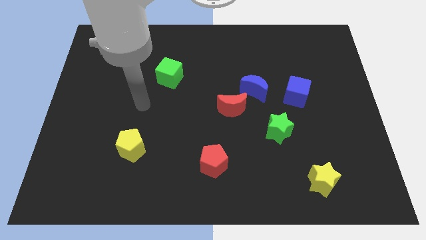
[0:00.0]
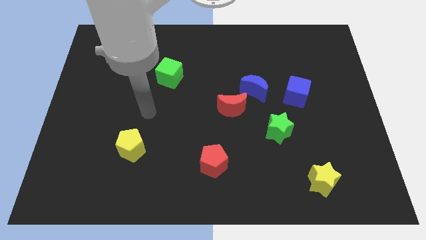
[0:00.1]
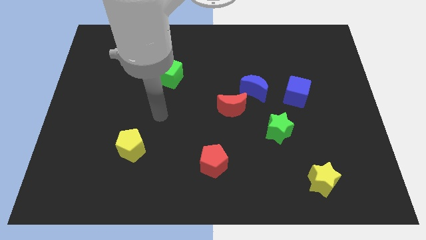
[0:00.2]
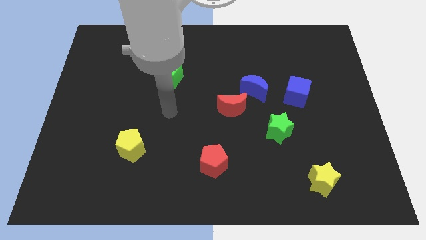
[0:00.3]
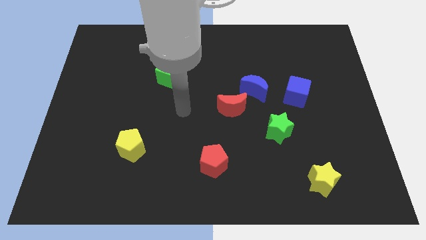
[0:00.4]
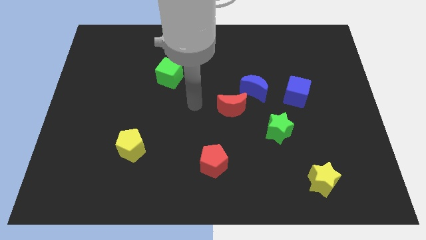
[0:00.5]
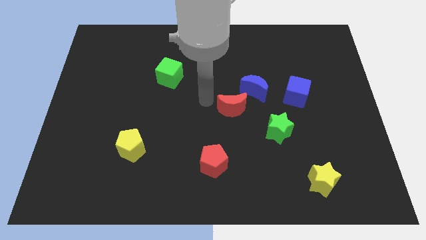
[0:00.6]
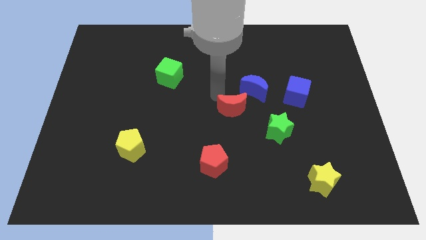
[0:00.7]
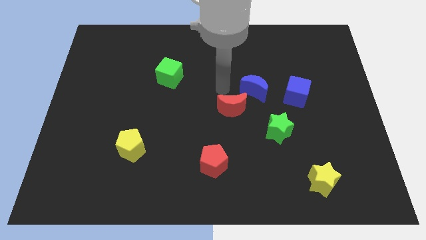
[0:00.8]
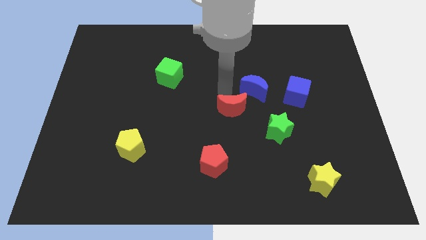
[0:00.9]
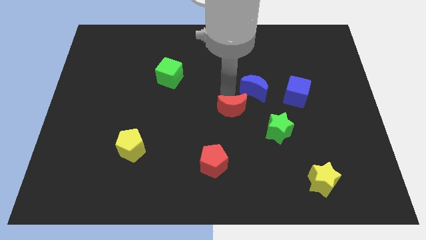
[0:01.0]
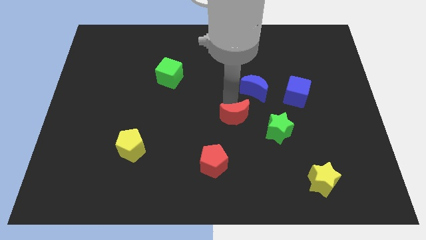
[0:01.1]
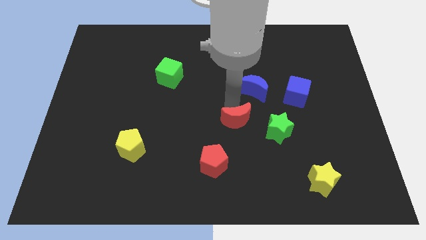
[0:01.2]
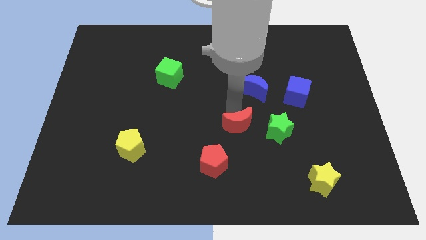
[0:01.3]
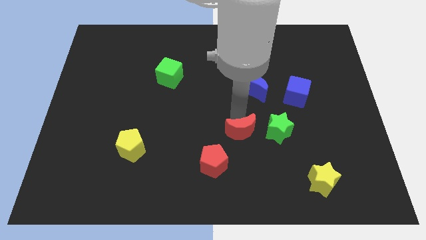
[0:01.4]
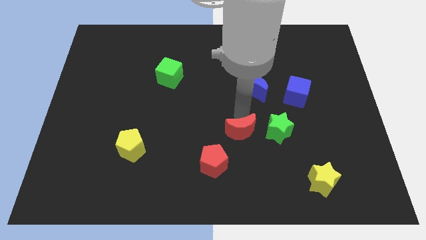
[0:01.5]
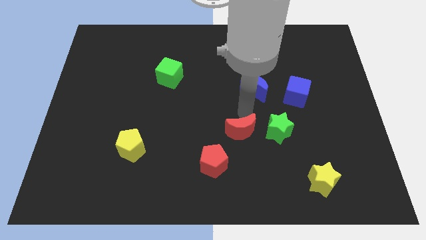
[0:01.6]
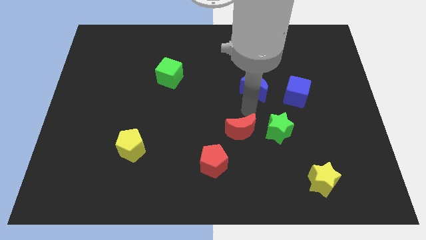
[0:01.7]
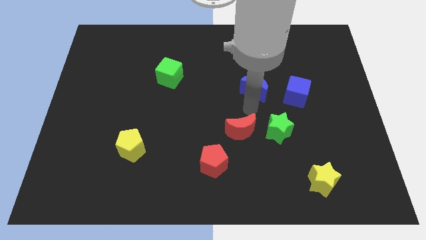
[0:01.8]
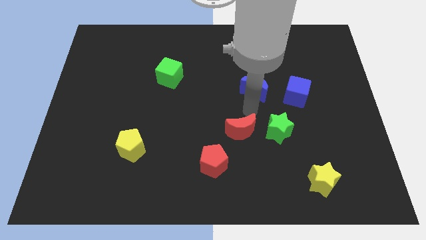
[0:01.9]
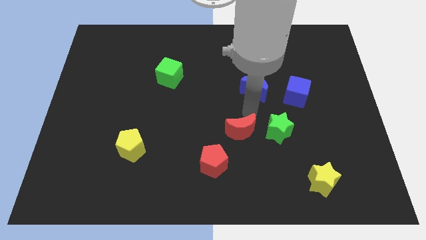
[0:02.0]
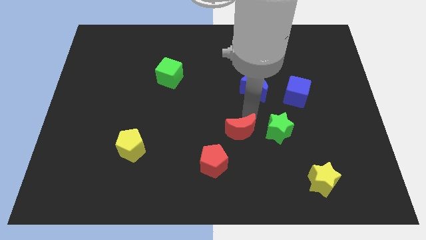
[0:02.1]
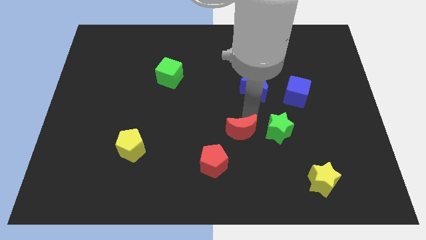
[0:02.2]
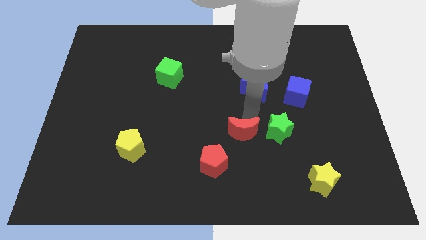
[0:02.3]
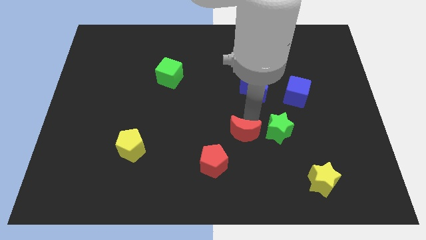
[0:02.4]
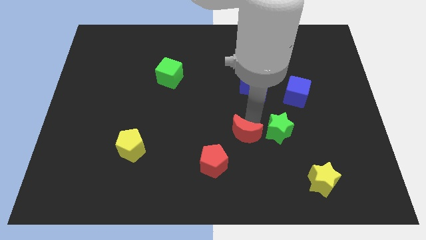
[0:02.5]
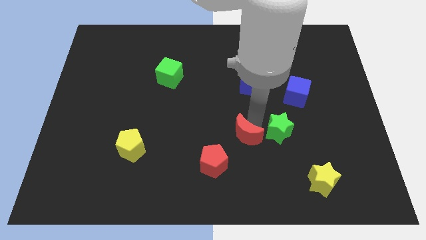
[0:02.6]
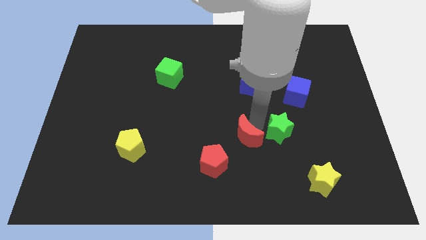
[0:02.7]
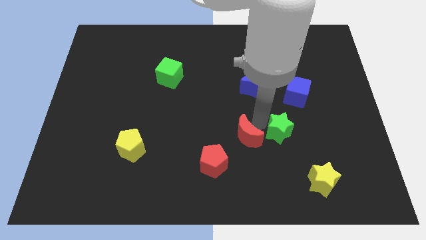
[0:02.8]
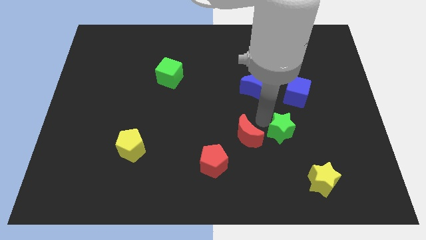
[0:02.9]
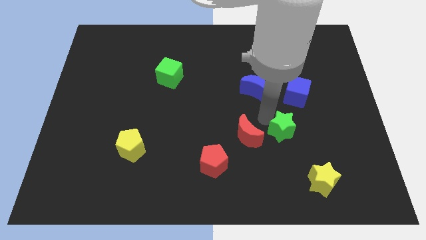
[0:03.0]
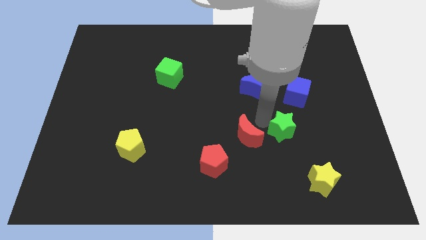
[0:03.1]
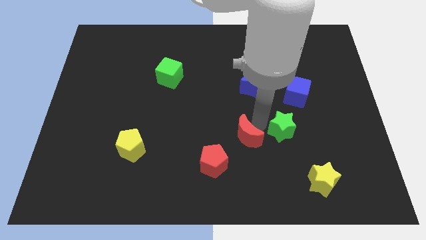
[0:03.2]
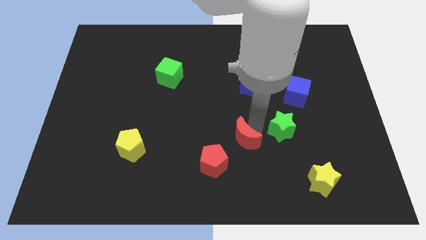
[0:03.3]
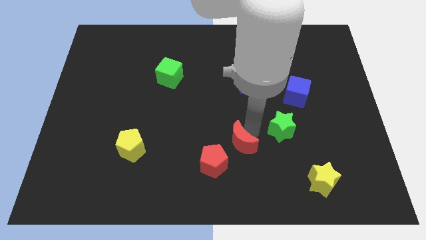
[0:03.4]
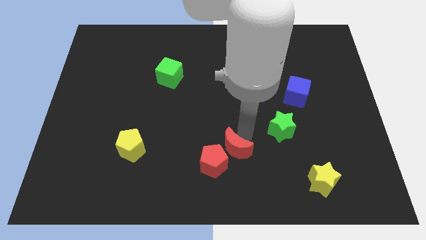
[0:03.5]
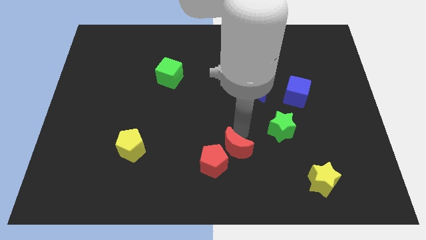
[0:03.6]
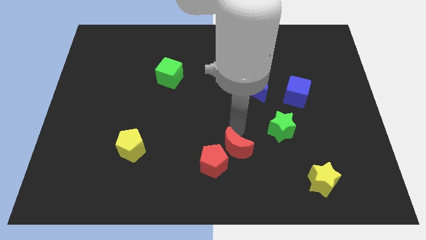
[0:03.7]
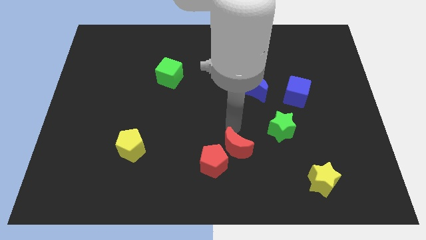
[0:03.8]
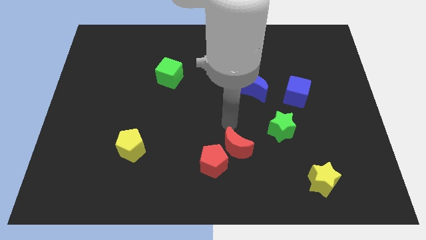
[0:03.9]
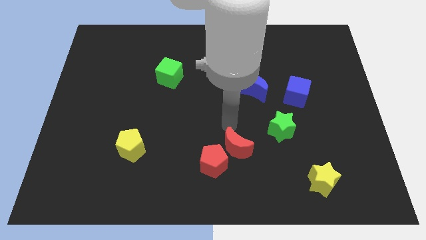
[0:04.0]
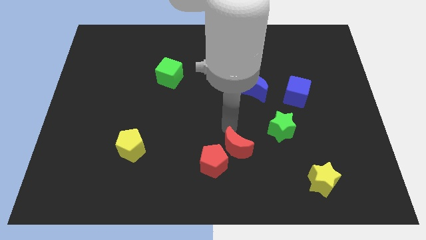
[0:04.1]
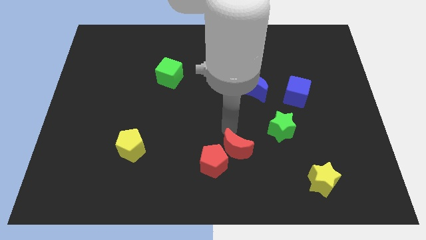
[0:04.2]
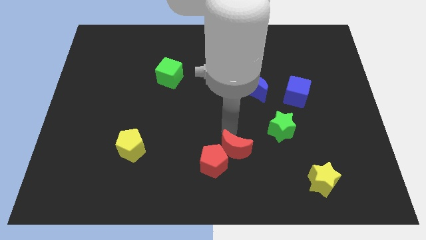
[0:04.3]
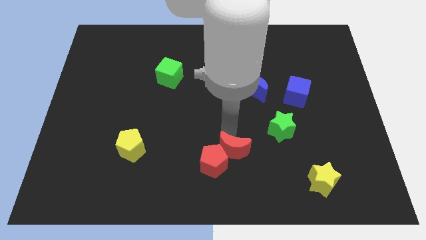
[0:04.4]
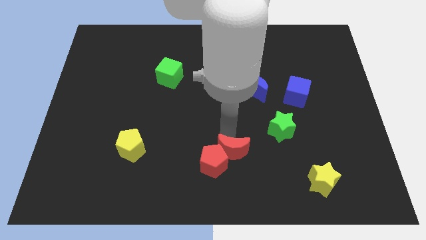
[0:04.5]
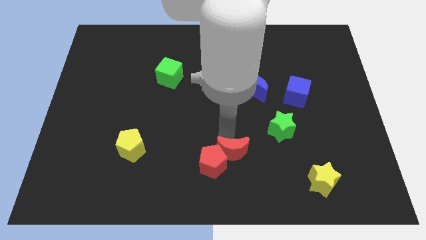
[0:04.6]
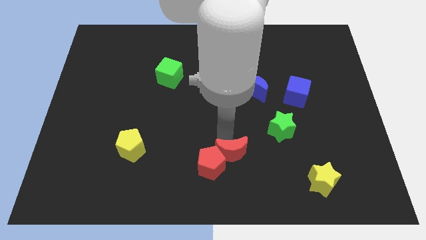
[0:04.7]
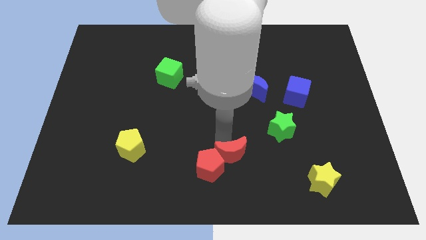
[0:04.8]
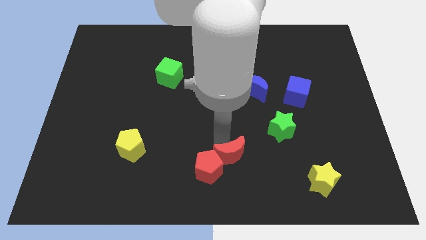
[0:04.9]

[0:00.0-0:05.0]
slide the red moon to the bottom

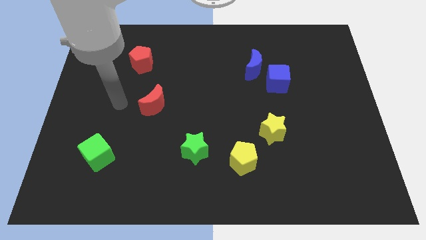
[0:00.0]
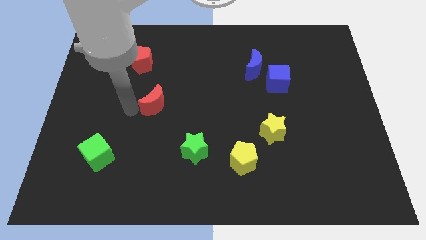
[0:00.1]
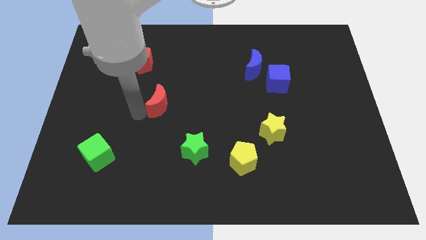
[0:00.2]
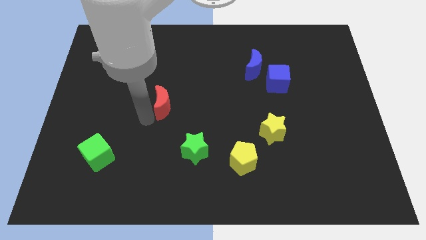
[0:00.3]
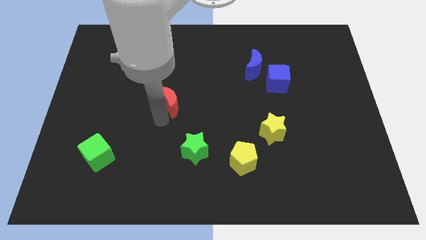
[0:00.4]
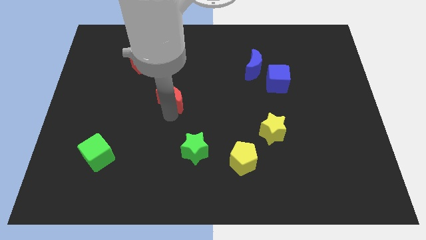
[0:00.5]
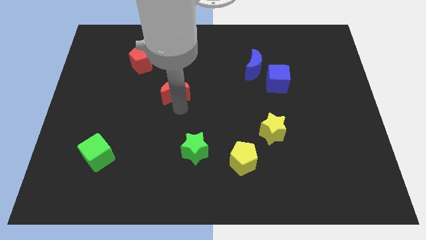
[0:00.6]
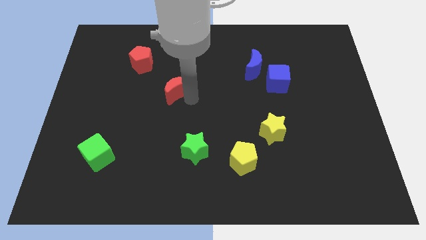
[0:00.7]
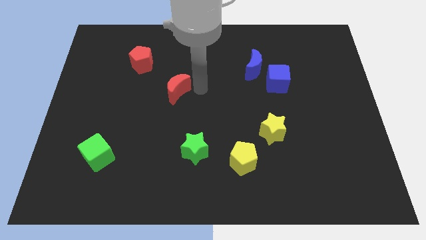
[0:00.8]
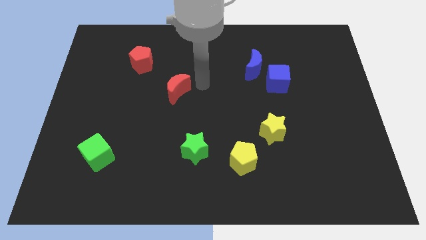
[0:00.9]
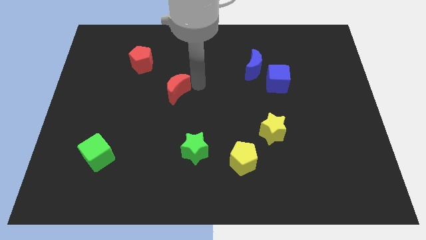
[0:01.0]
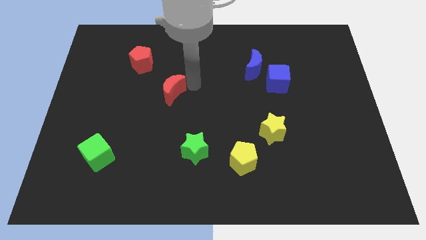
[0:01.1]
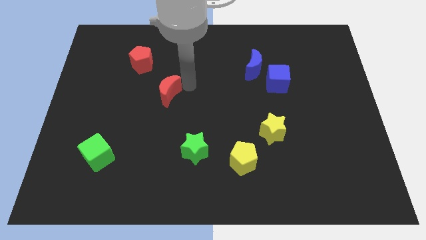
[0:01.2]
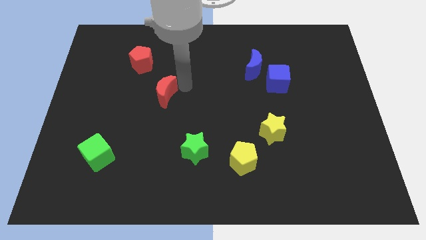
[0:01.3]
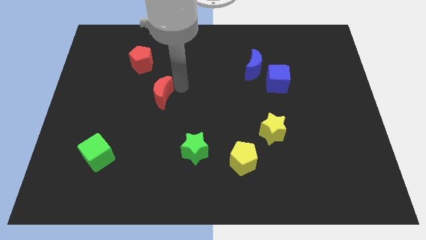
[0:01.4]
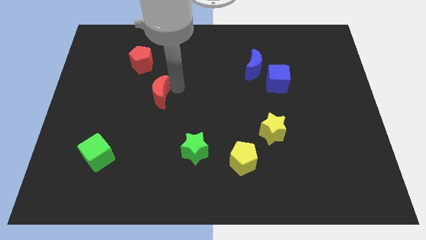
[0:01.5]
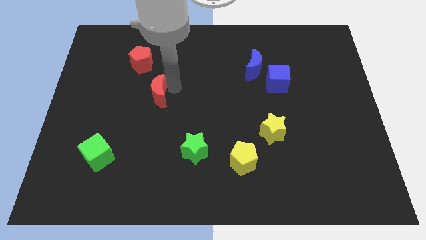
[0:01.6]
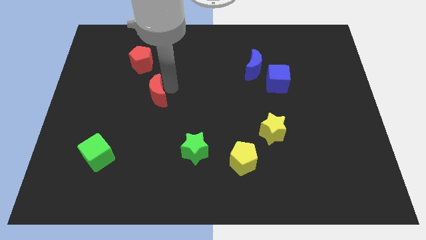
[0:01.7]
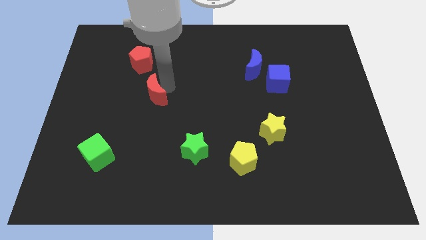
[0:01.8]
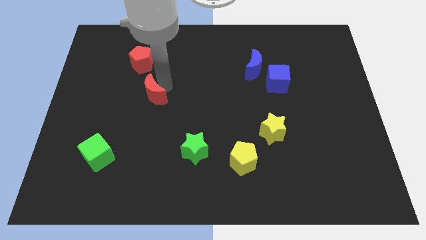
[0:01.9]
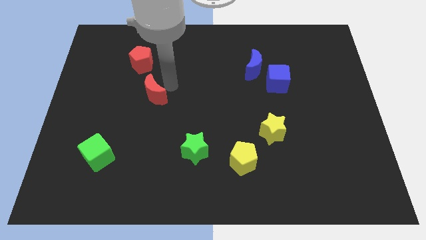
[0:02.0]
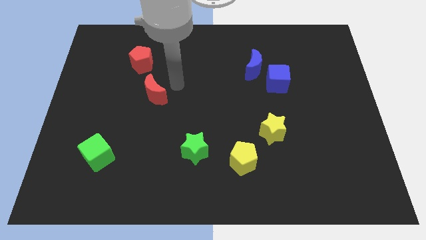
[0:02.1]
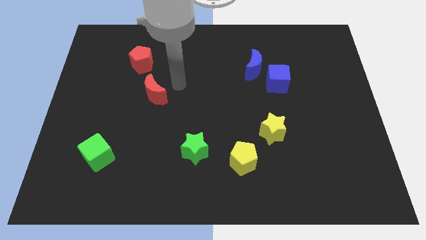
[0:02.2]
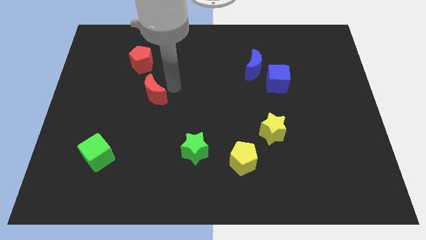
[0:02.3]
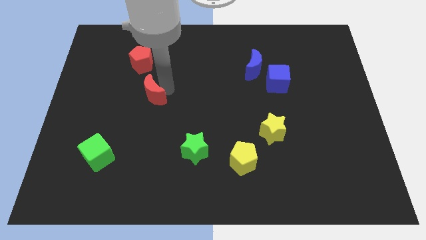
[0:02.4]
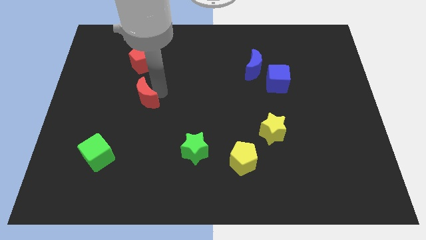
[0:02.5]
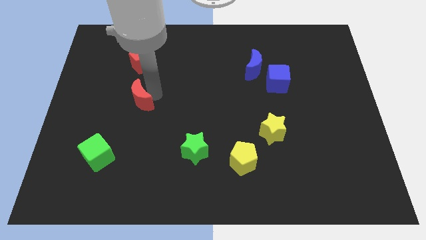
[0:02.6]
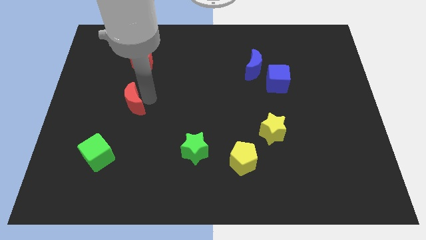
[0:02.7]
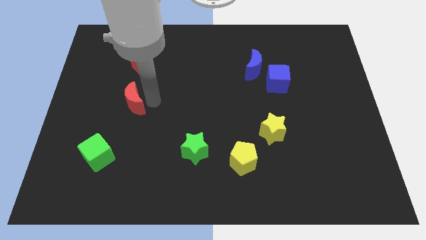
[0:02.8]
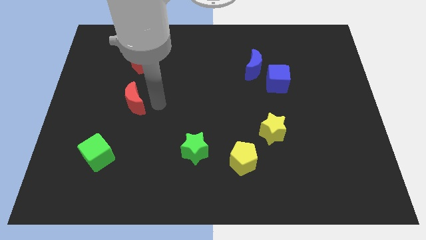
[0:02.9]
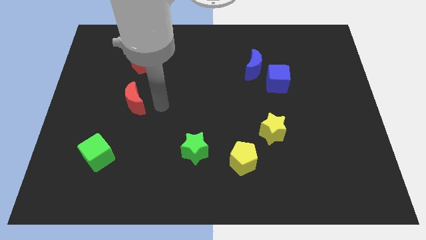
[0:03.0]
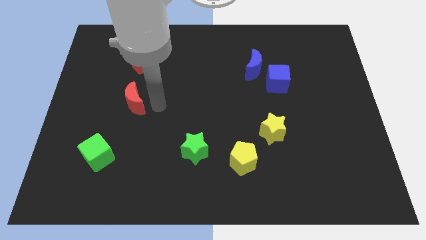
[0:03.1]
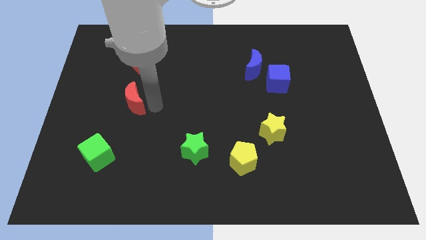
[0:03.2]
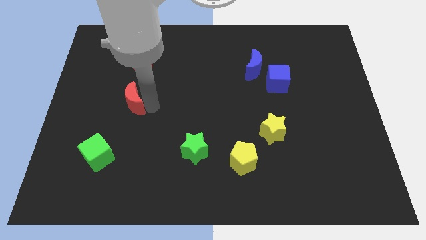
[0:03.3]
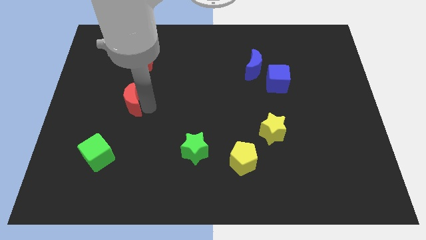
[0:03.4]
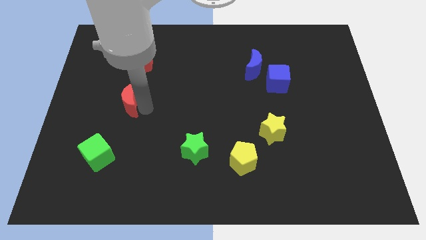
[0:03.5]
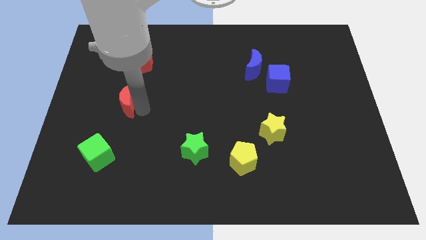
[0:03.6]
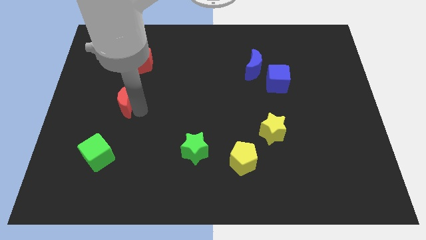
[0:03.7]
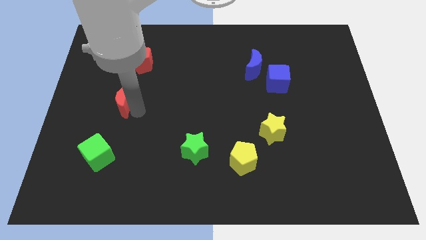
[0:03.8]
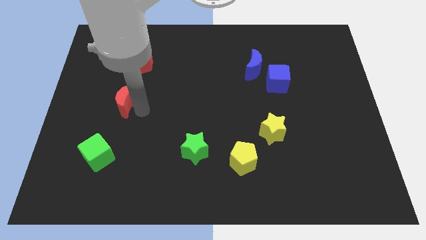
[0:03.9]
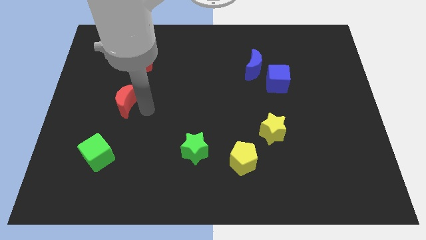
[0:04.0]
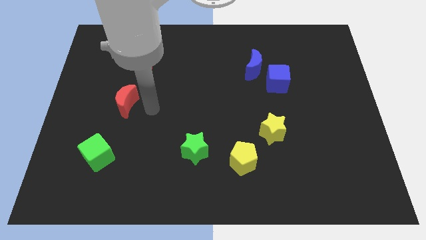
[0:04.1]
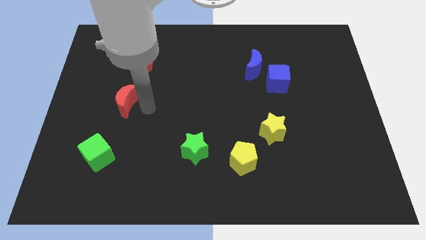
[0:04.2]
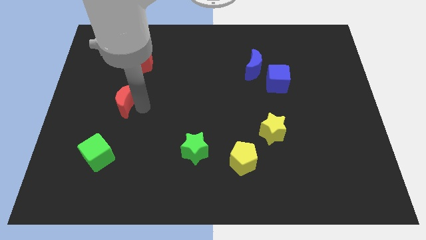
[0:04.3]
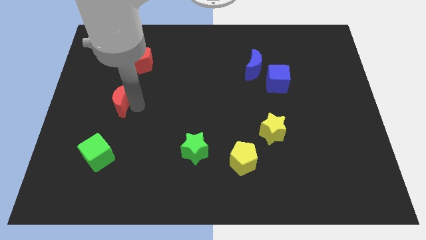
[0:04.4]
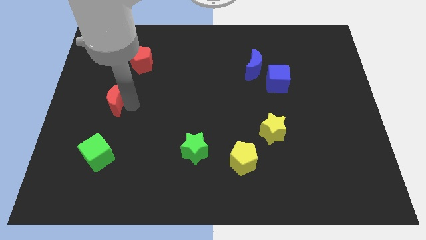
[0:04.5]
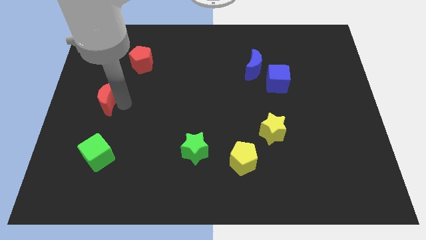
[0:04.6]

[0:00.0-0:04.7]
move the red moon to the left side of the board
